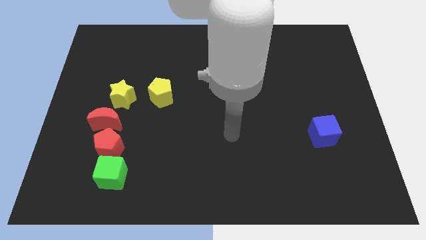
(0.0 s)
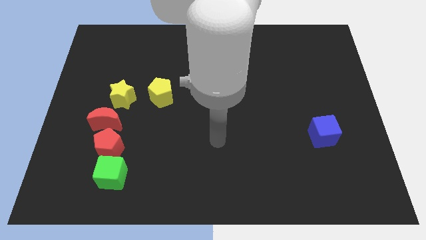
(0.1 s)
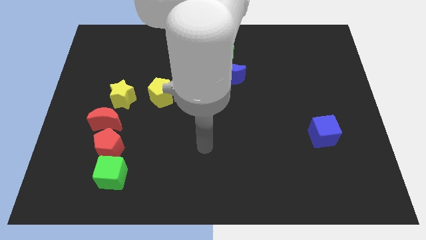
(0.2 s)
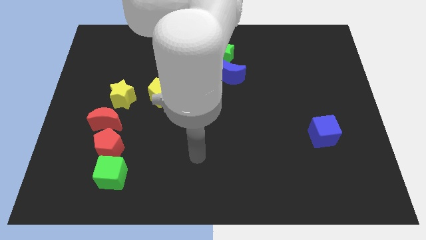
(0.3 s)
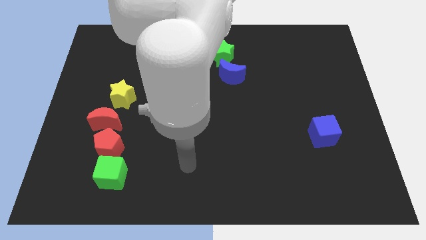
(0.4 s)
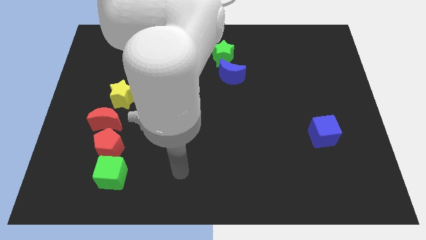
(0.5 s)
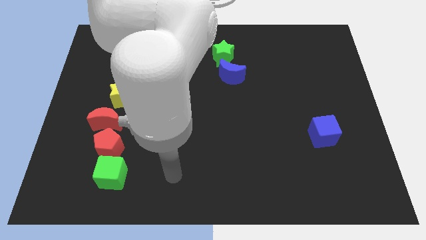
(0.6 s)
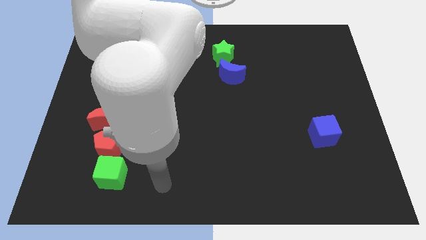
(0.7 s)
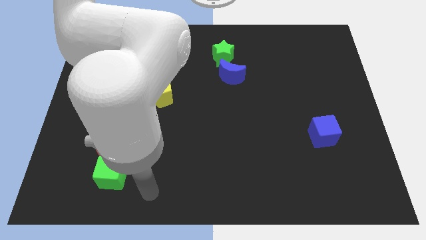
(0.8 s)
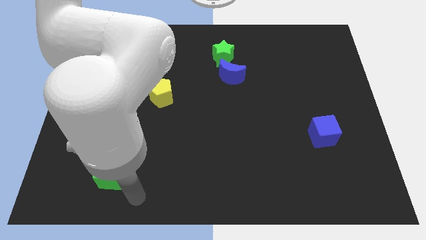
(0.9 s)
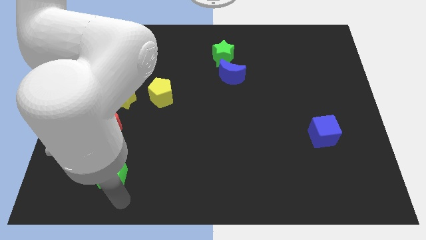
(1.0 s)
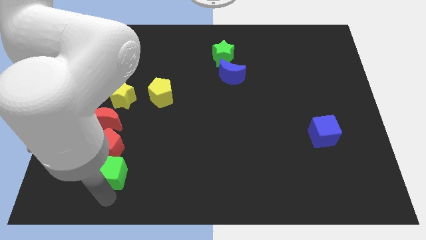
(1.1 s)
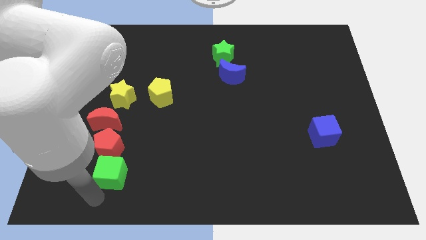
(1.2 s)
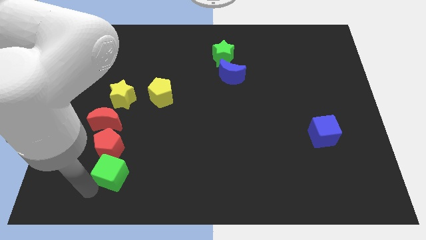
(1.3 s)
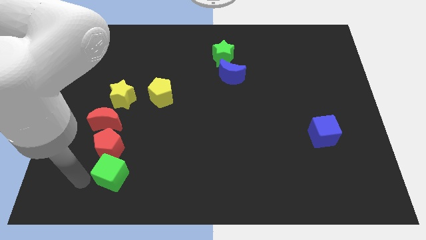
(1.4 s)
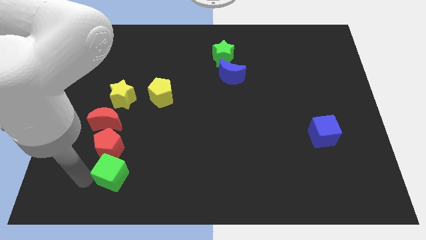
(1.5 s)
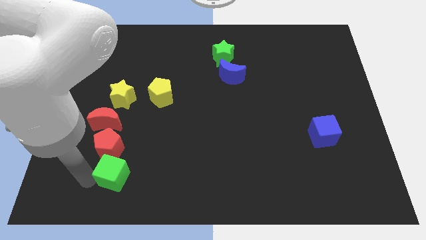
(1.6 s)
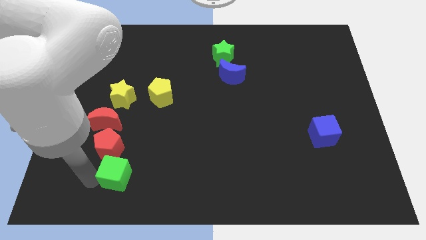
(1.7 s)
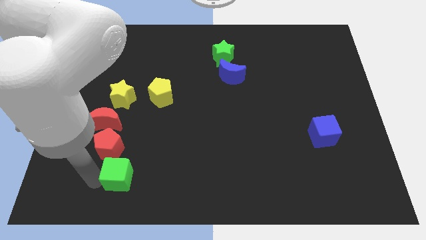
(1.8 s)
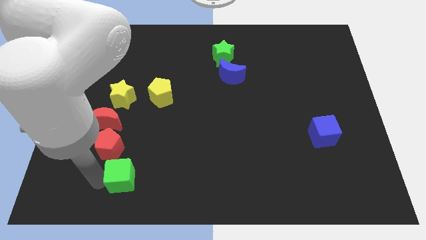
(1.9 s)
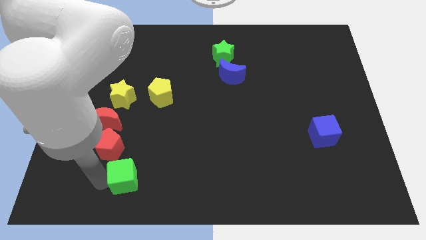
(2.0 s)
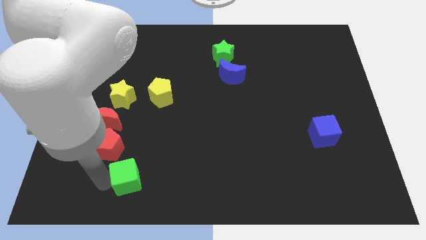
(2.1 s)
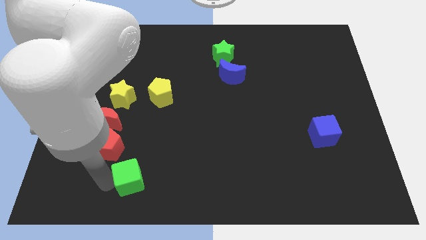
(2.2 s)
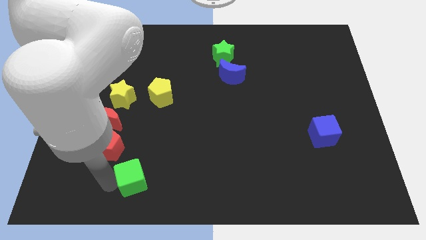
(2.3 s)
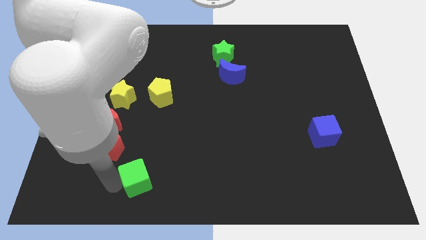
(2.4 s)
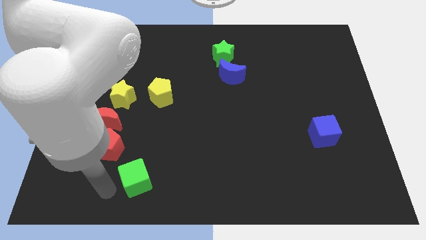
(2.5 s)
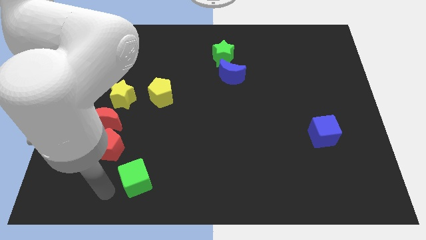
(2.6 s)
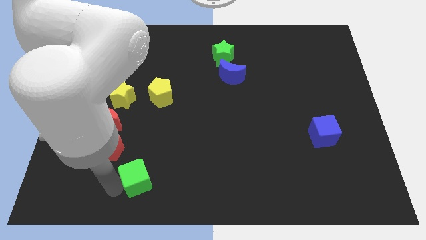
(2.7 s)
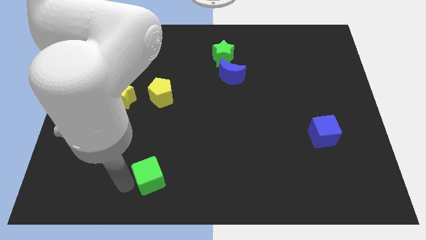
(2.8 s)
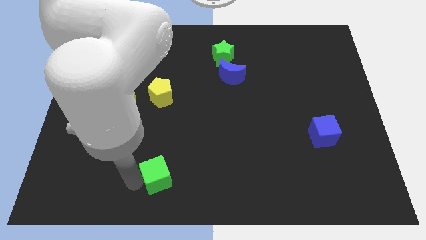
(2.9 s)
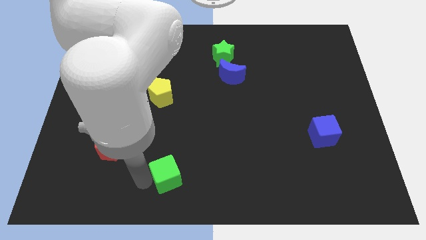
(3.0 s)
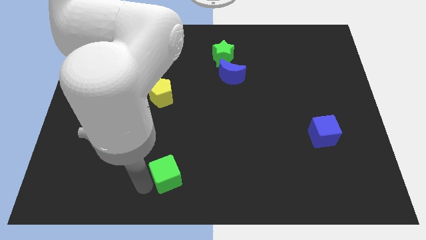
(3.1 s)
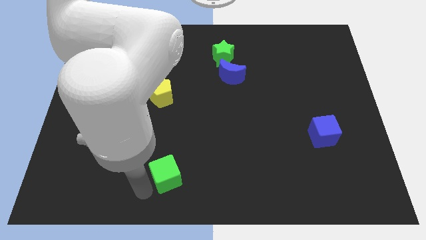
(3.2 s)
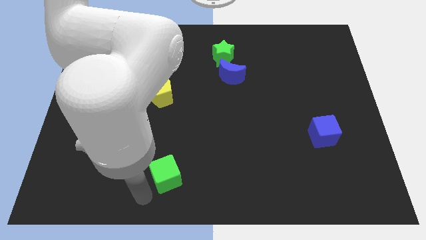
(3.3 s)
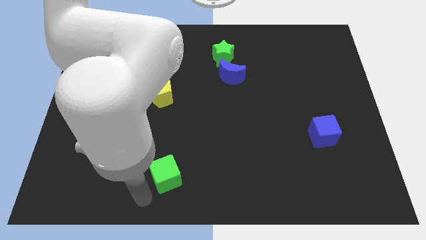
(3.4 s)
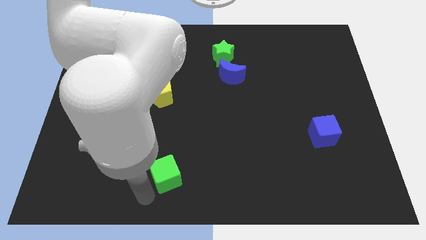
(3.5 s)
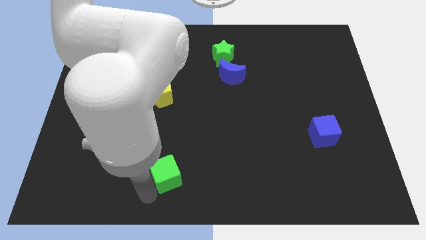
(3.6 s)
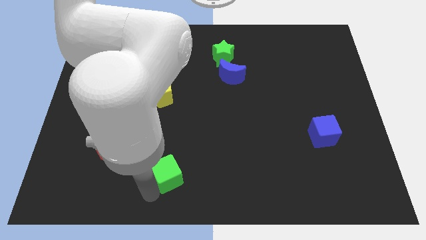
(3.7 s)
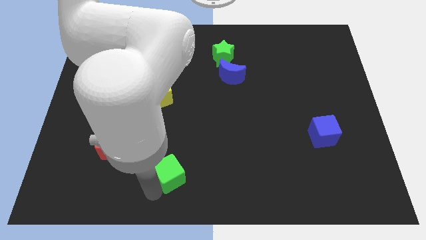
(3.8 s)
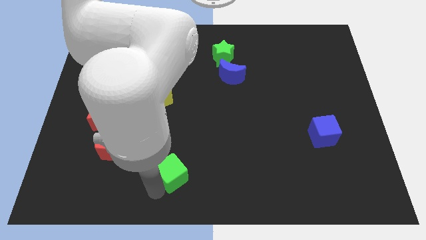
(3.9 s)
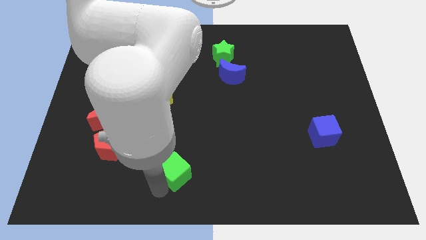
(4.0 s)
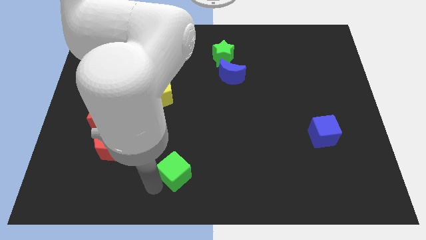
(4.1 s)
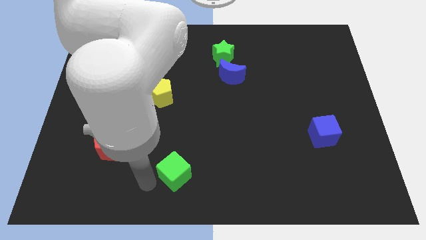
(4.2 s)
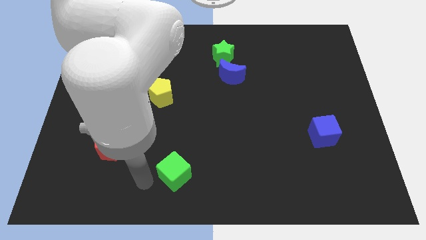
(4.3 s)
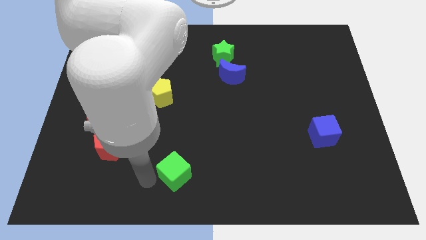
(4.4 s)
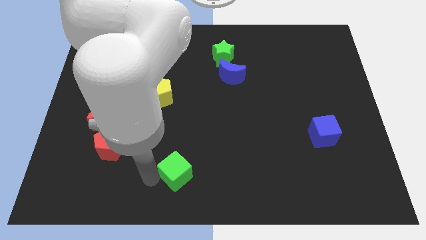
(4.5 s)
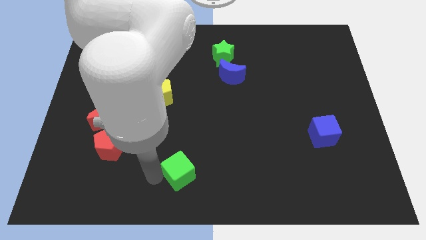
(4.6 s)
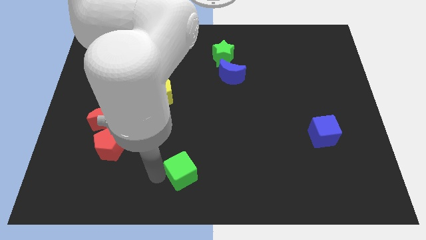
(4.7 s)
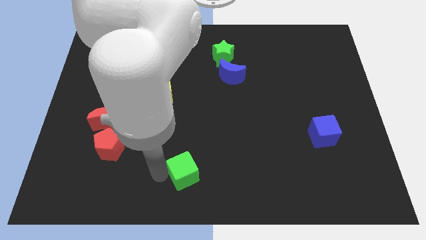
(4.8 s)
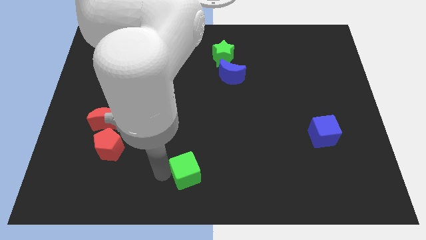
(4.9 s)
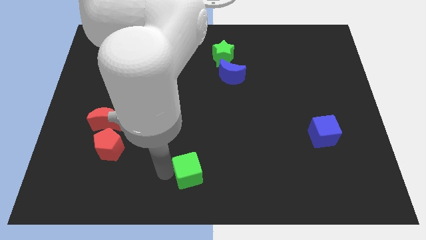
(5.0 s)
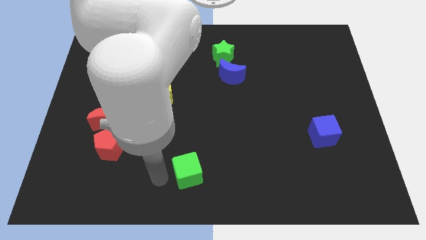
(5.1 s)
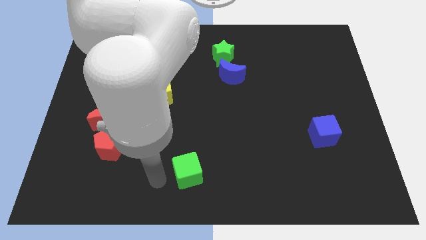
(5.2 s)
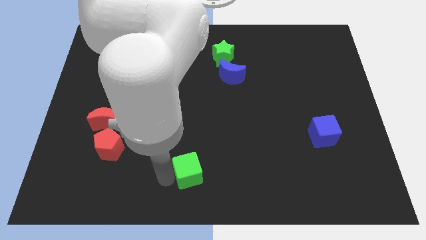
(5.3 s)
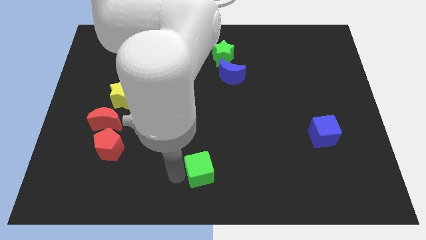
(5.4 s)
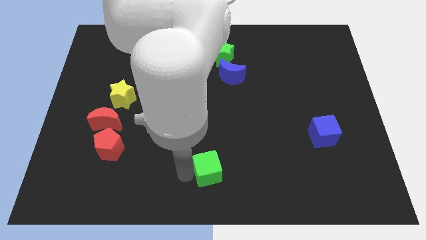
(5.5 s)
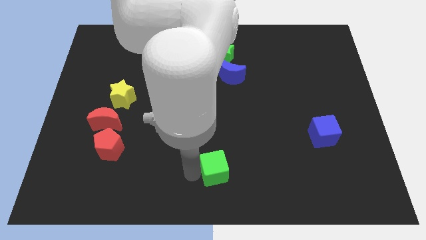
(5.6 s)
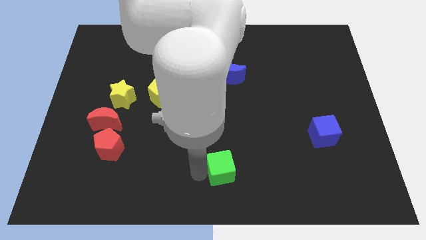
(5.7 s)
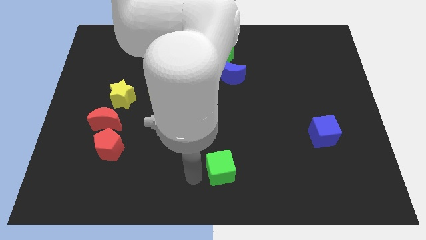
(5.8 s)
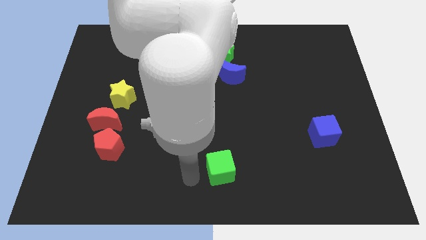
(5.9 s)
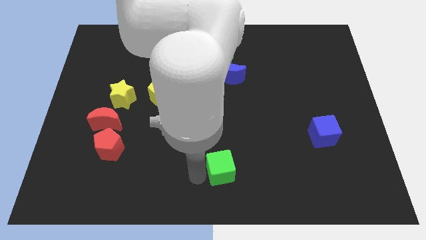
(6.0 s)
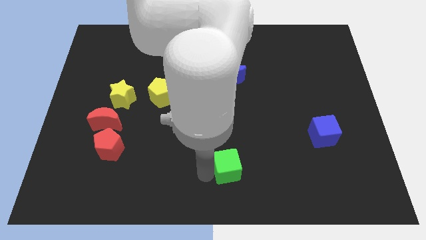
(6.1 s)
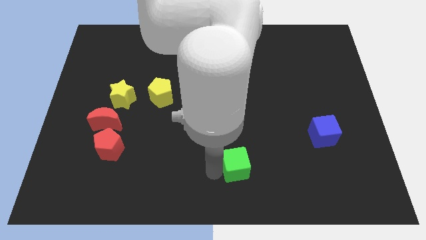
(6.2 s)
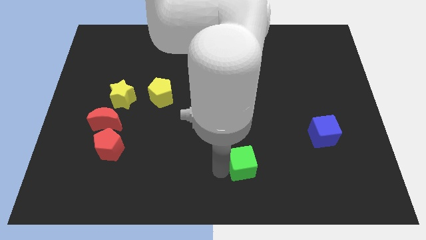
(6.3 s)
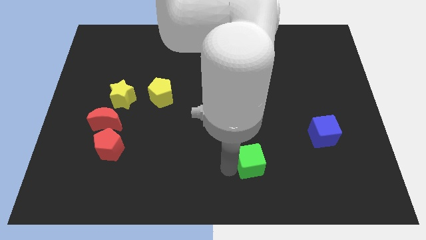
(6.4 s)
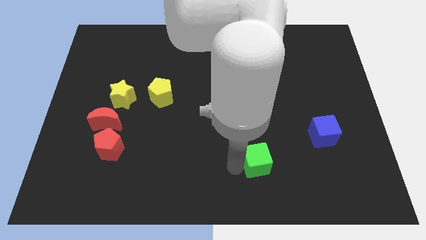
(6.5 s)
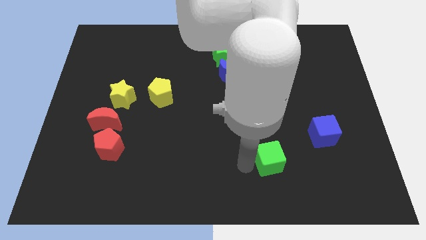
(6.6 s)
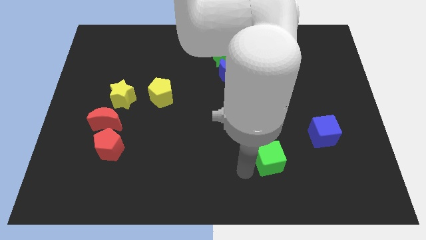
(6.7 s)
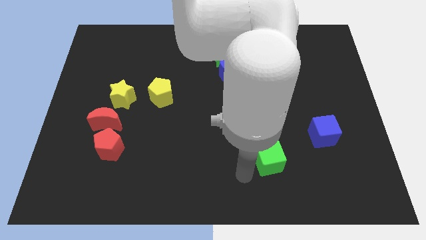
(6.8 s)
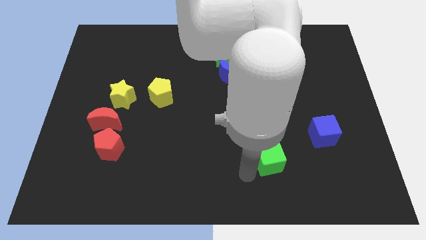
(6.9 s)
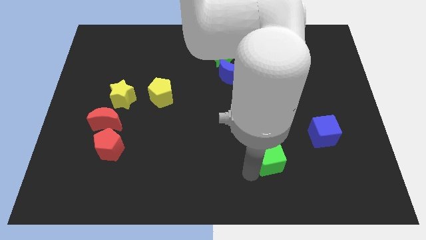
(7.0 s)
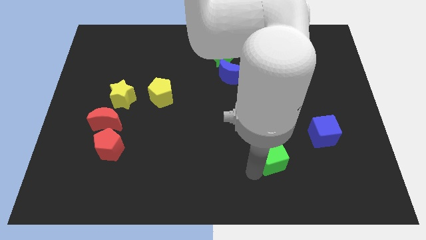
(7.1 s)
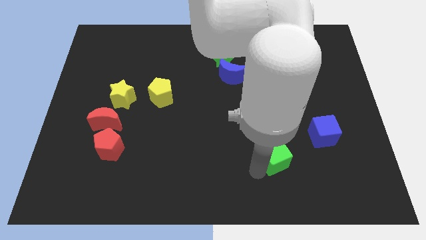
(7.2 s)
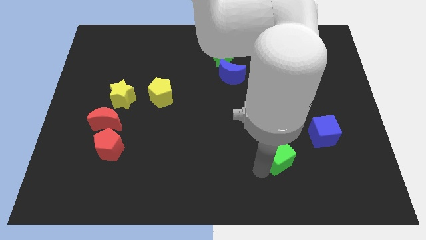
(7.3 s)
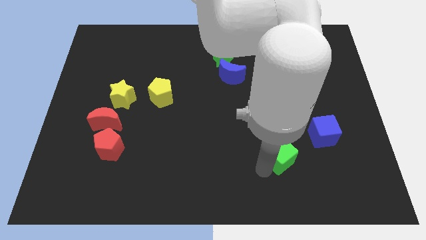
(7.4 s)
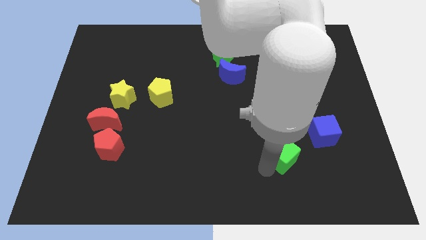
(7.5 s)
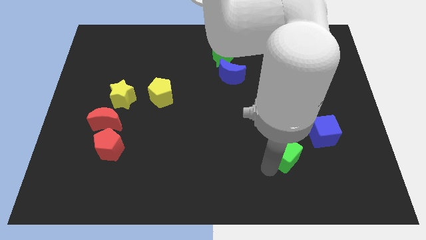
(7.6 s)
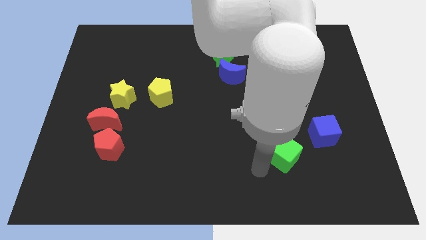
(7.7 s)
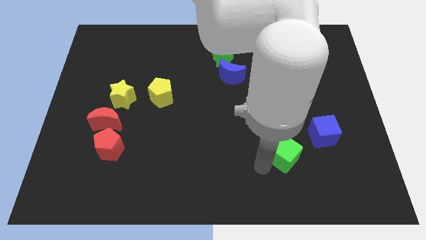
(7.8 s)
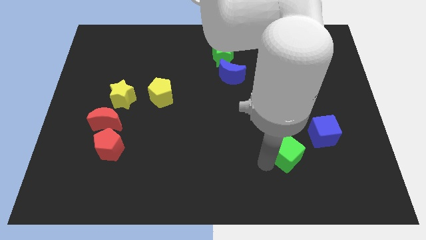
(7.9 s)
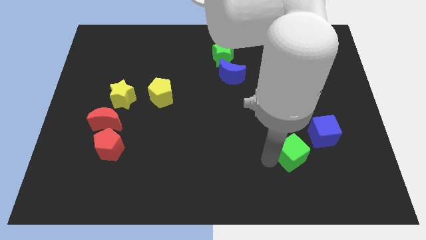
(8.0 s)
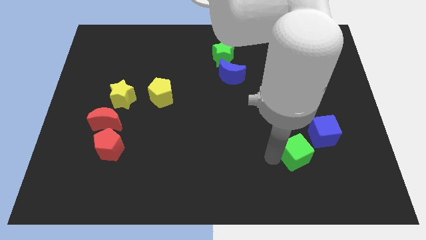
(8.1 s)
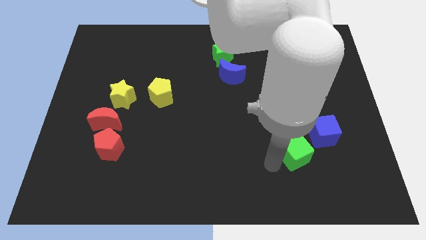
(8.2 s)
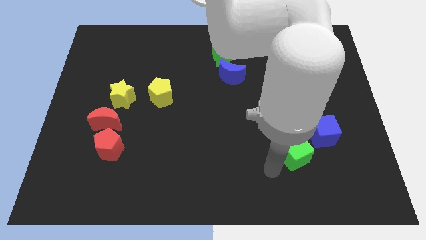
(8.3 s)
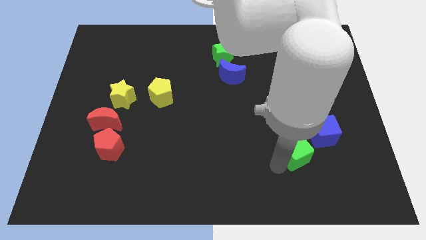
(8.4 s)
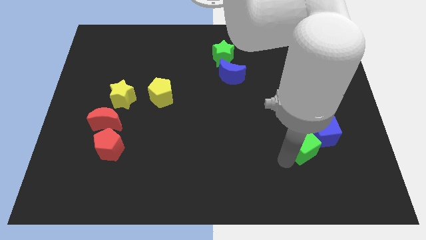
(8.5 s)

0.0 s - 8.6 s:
put the green cube towards the blue cube

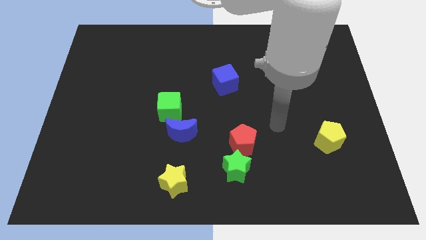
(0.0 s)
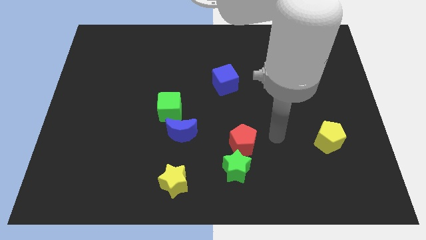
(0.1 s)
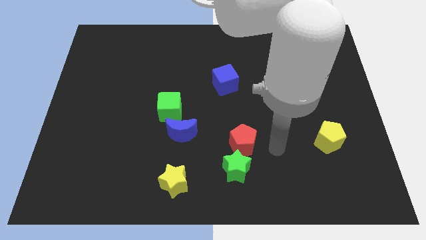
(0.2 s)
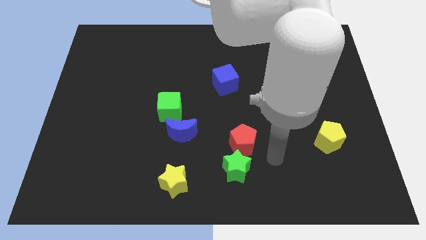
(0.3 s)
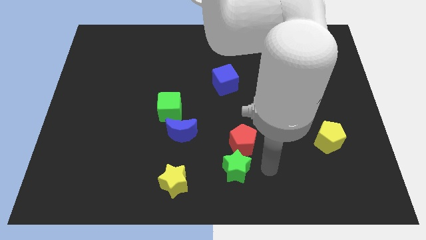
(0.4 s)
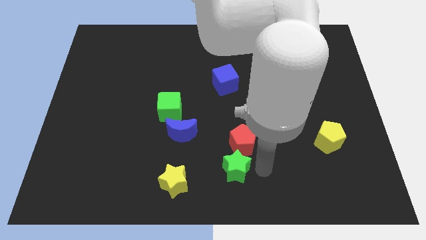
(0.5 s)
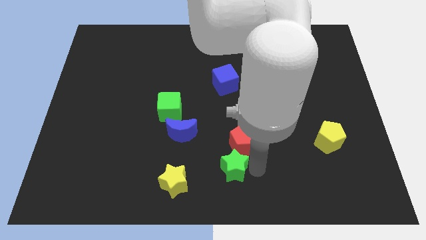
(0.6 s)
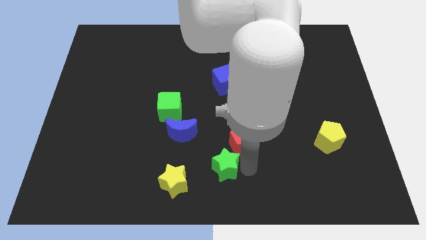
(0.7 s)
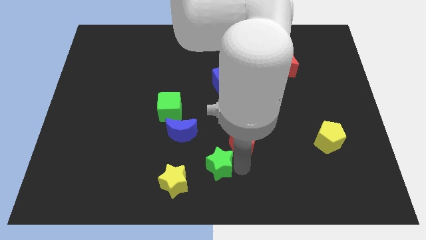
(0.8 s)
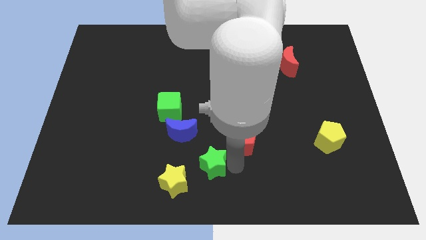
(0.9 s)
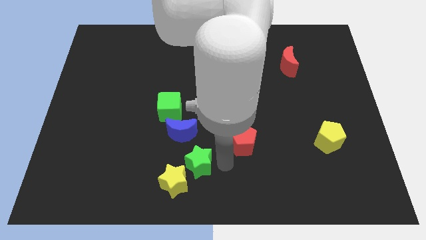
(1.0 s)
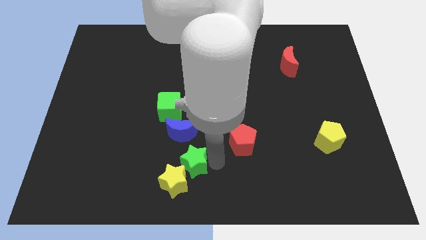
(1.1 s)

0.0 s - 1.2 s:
slide the green star close to the yellow star
